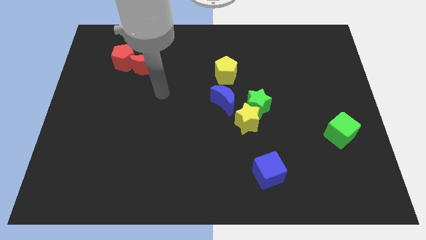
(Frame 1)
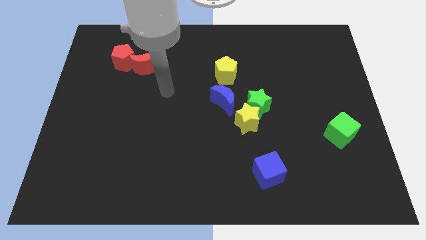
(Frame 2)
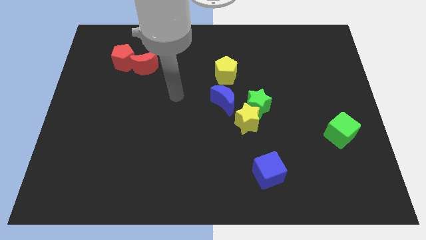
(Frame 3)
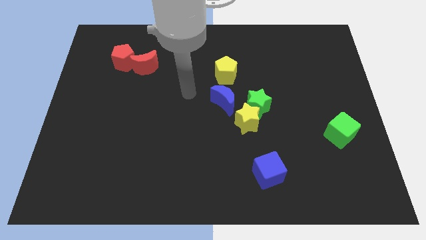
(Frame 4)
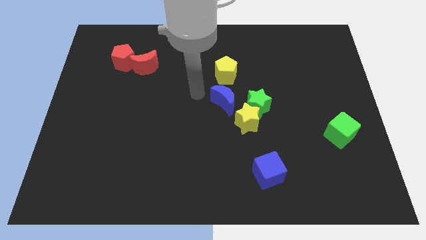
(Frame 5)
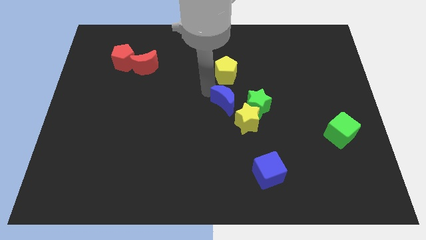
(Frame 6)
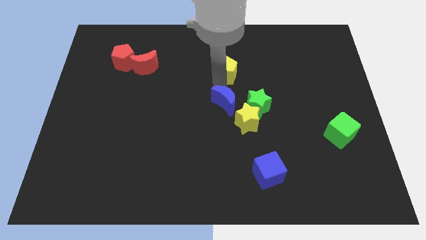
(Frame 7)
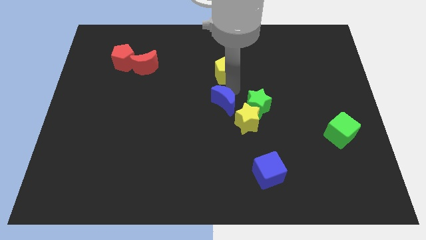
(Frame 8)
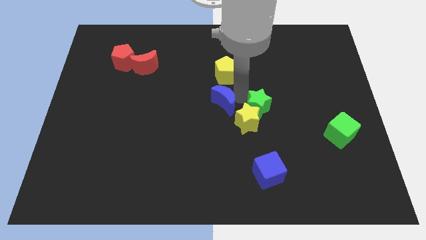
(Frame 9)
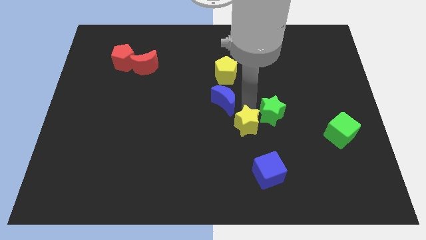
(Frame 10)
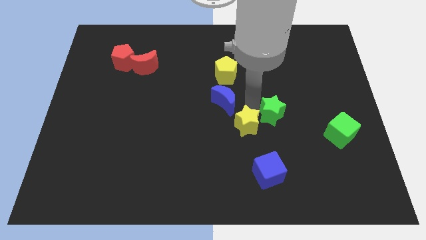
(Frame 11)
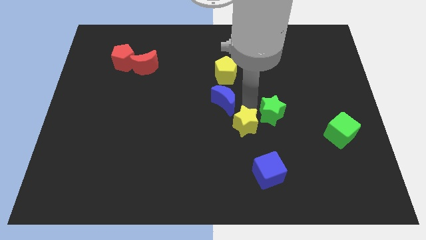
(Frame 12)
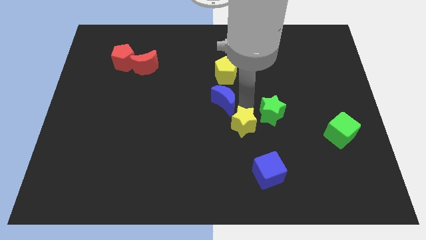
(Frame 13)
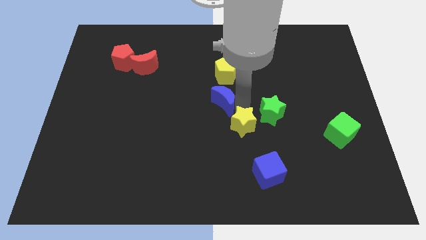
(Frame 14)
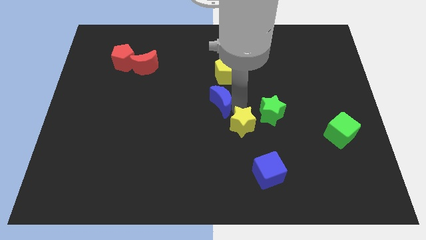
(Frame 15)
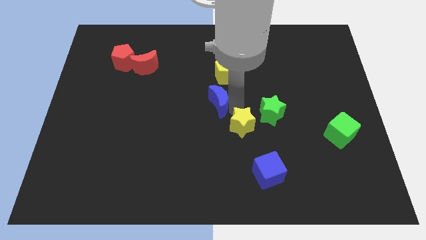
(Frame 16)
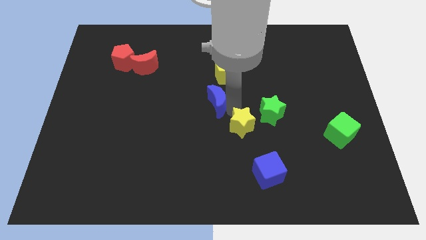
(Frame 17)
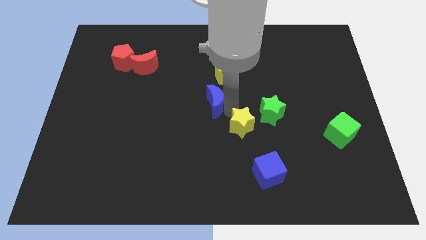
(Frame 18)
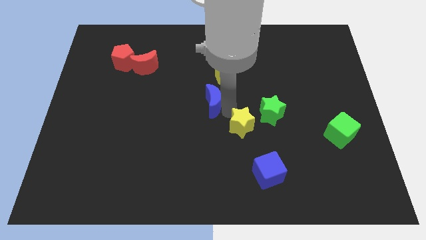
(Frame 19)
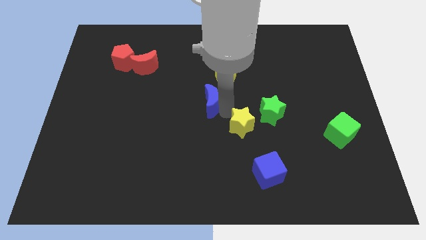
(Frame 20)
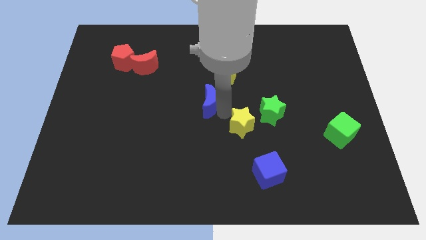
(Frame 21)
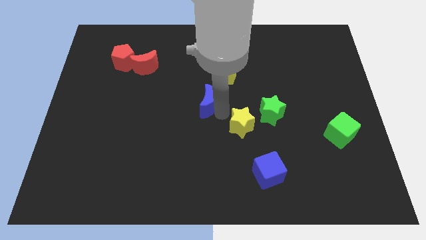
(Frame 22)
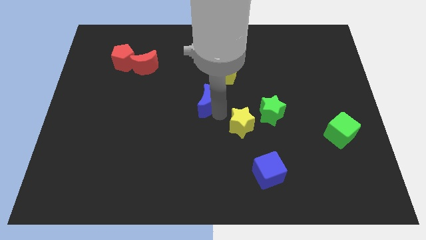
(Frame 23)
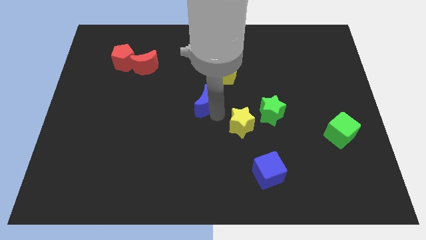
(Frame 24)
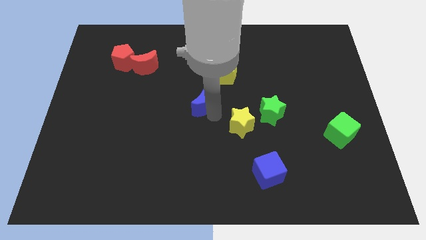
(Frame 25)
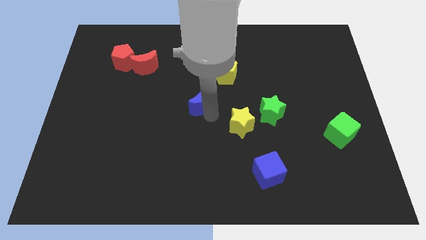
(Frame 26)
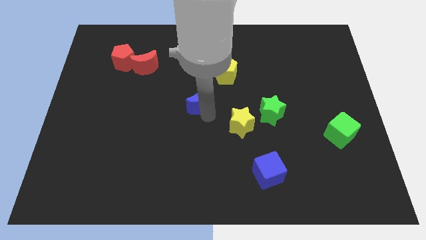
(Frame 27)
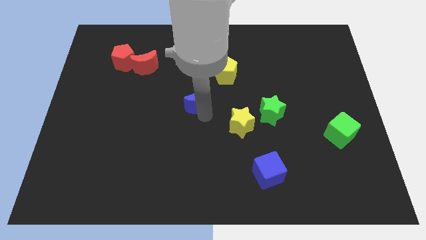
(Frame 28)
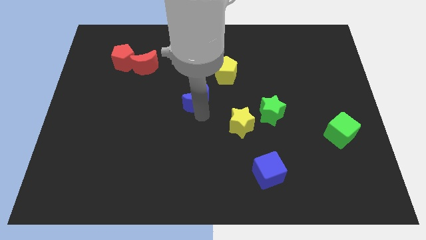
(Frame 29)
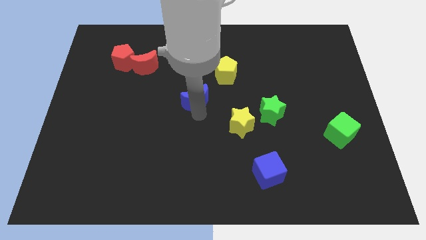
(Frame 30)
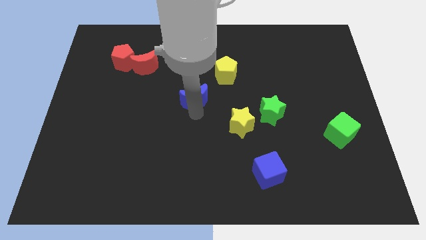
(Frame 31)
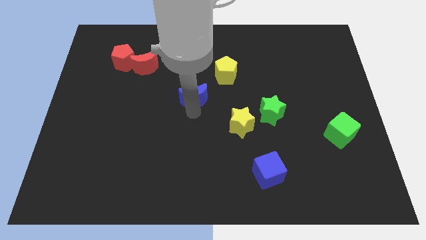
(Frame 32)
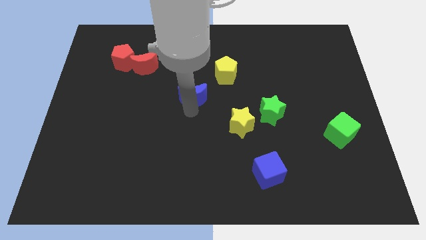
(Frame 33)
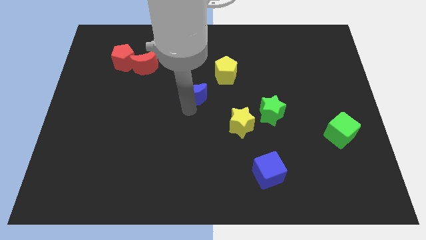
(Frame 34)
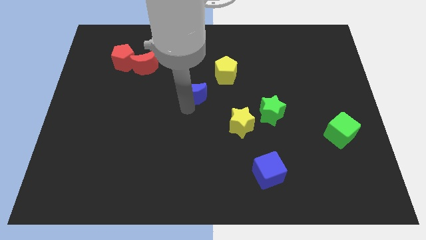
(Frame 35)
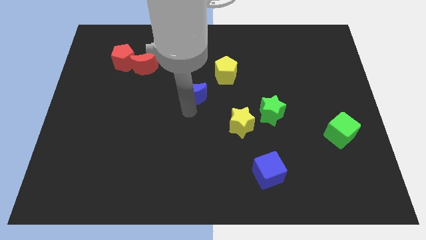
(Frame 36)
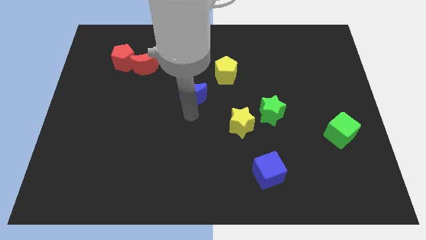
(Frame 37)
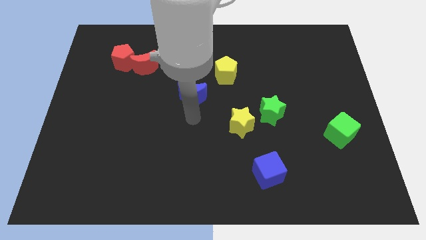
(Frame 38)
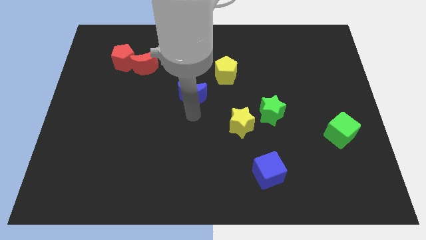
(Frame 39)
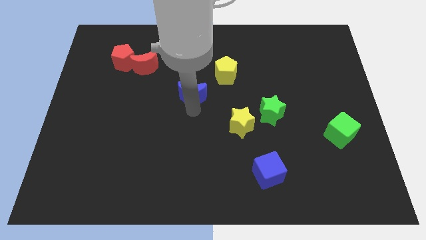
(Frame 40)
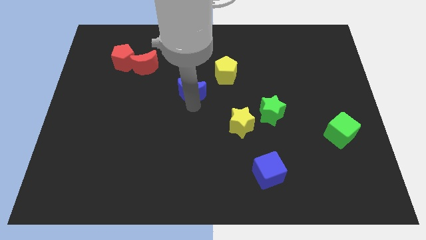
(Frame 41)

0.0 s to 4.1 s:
slightly push the blue moon diagonally upwards and to the left

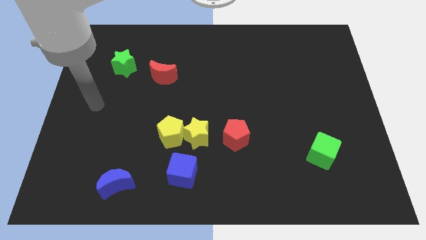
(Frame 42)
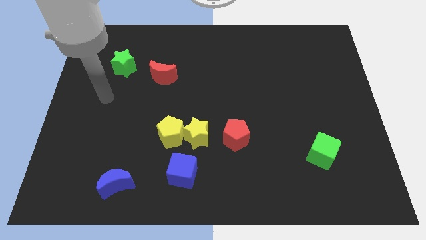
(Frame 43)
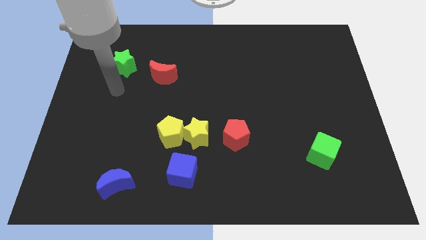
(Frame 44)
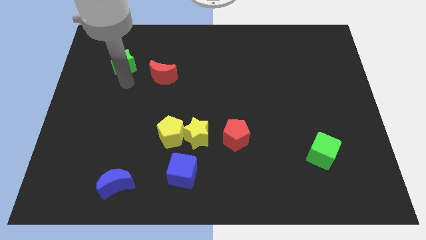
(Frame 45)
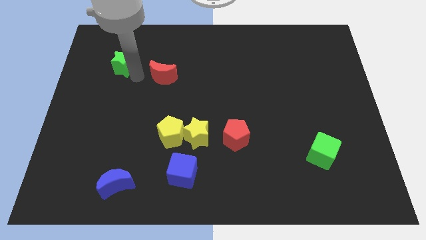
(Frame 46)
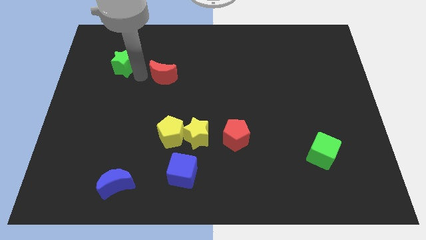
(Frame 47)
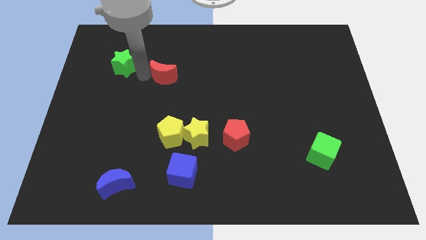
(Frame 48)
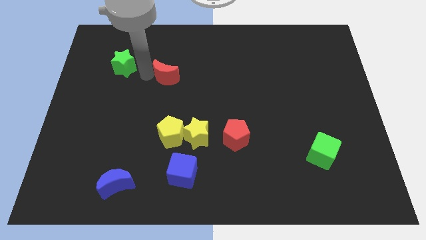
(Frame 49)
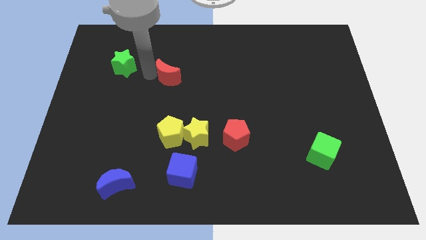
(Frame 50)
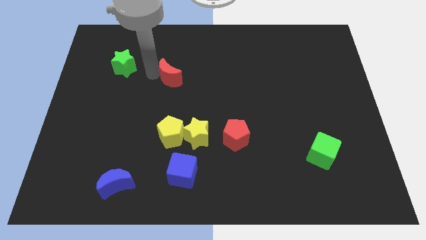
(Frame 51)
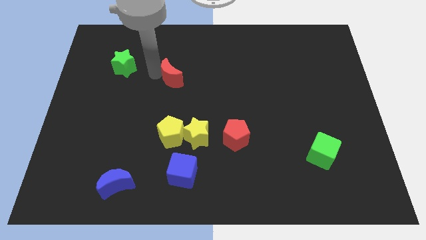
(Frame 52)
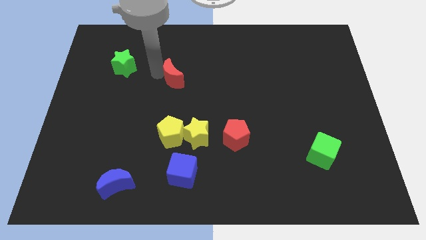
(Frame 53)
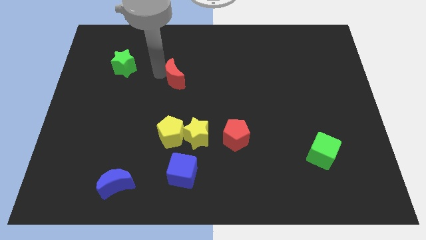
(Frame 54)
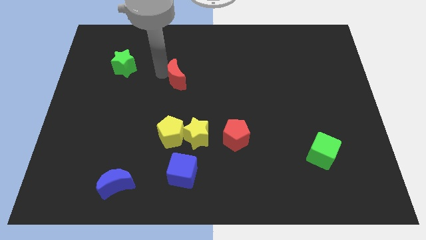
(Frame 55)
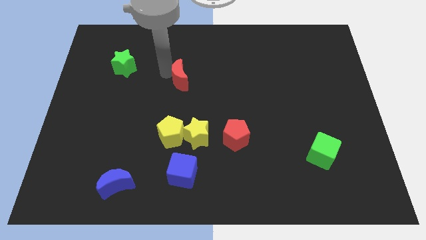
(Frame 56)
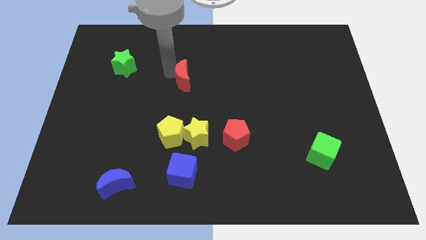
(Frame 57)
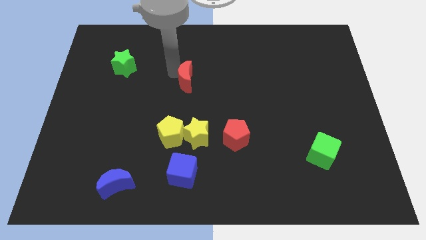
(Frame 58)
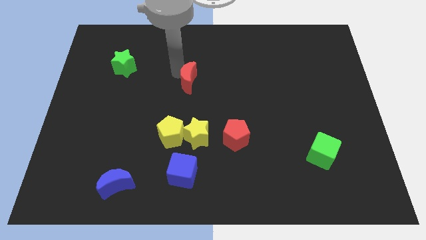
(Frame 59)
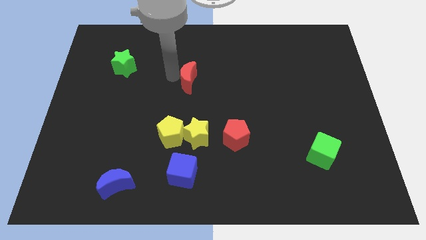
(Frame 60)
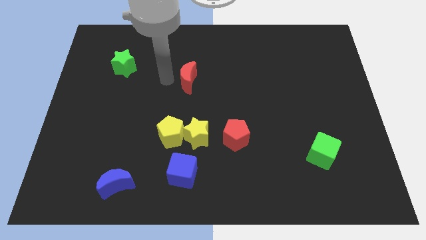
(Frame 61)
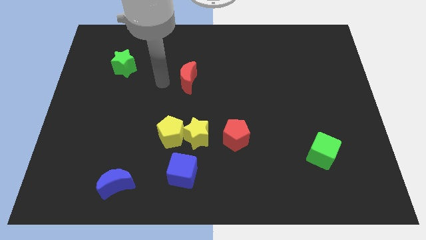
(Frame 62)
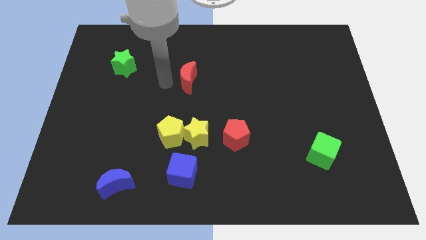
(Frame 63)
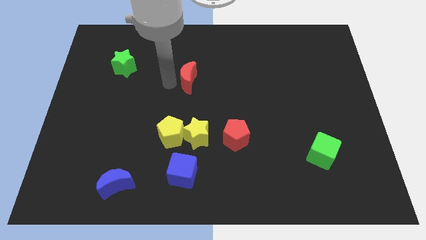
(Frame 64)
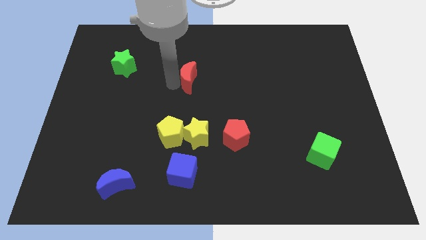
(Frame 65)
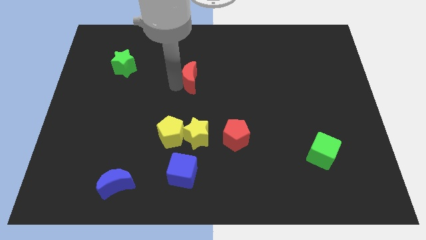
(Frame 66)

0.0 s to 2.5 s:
push the red moon slightly to the right

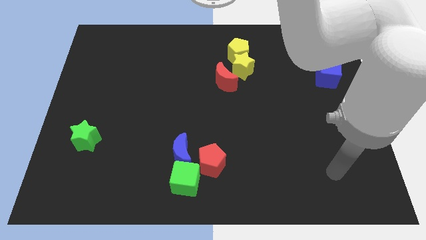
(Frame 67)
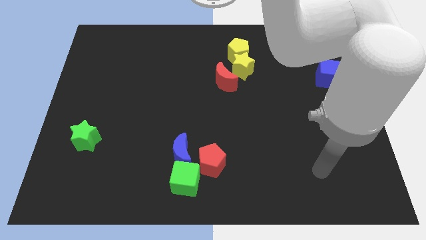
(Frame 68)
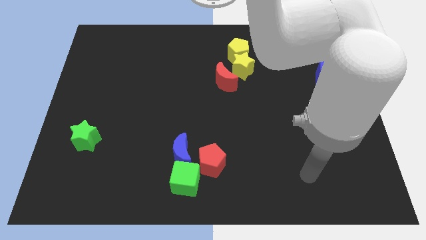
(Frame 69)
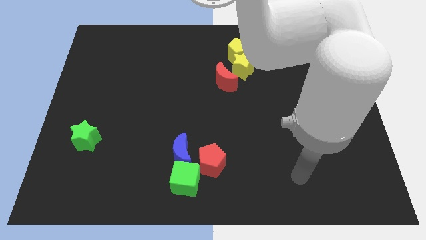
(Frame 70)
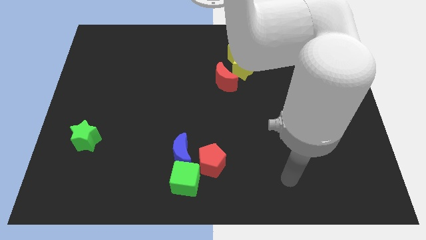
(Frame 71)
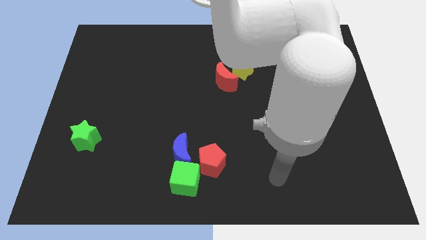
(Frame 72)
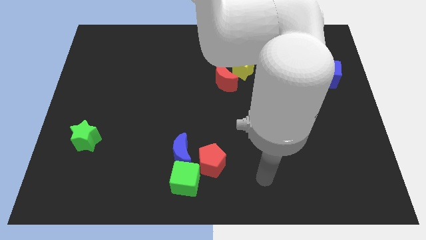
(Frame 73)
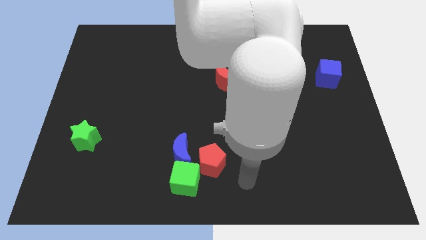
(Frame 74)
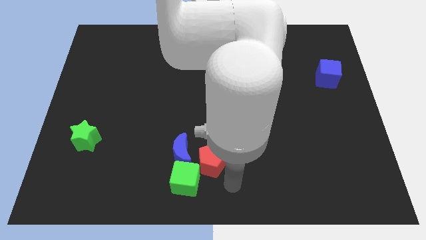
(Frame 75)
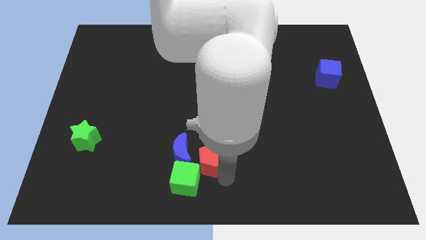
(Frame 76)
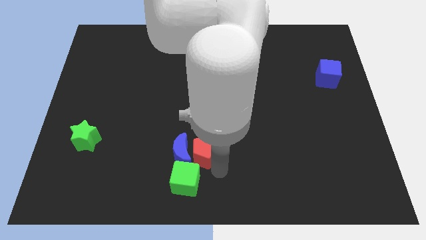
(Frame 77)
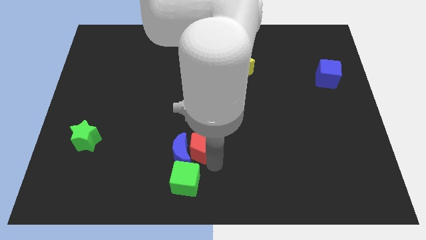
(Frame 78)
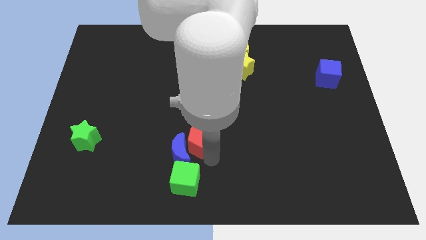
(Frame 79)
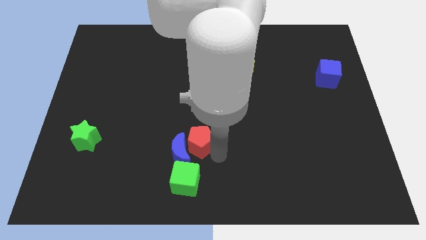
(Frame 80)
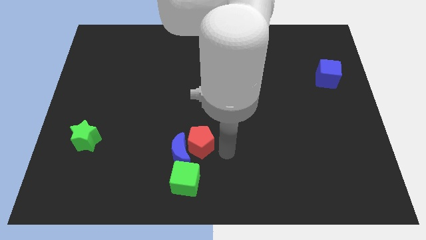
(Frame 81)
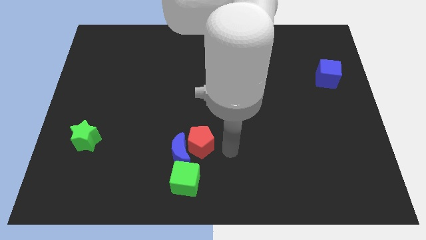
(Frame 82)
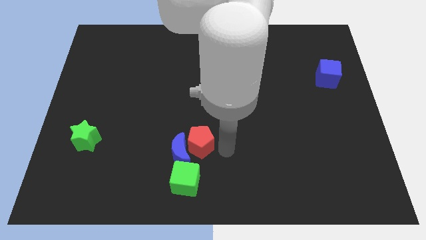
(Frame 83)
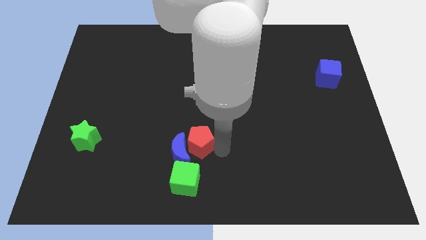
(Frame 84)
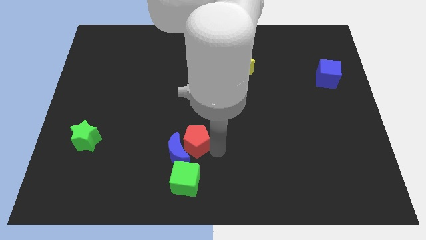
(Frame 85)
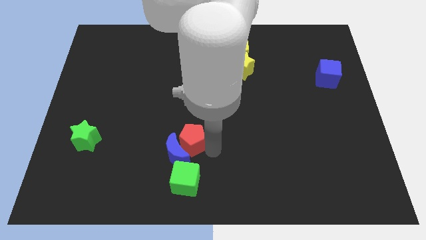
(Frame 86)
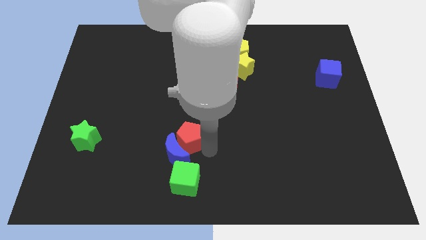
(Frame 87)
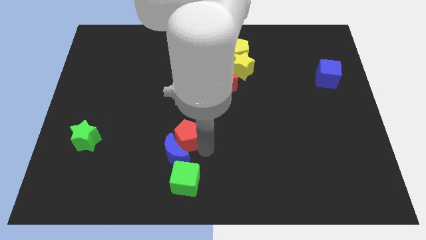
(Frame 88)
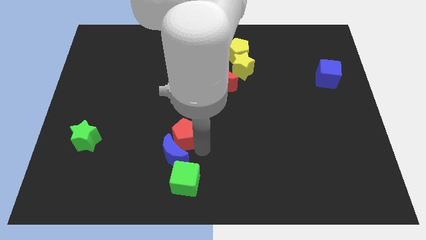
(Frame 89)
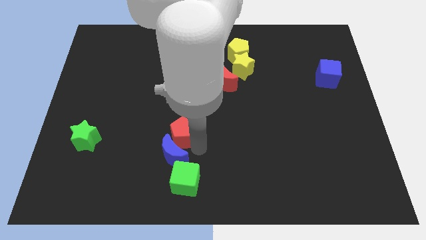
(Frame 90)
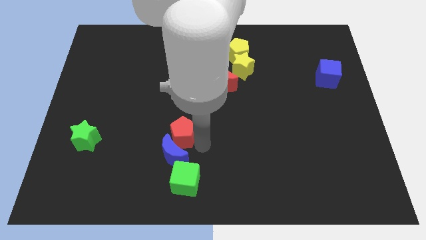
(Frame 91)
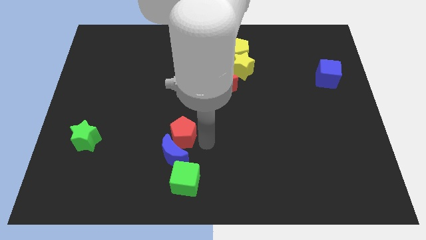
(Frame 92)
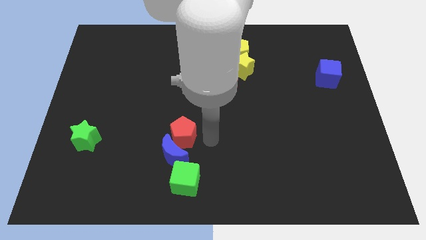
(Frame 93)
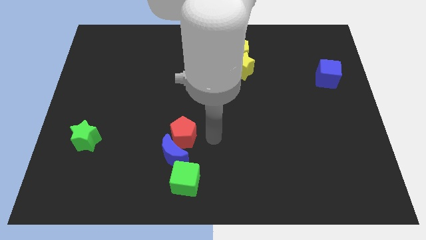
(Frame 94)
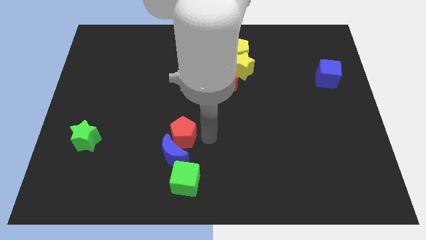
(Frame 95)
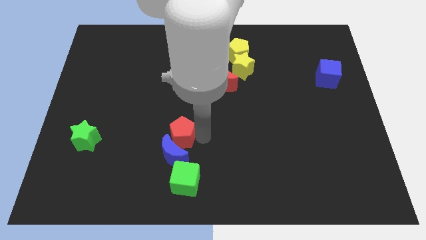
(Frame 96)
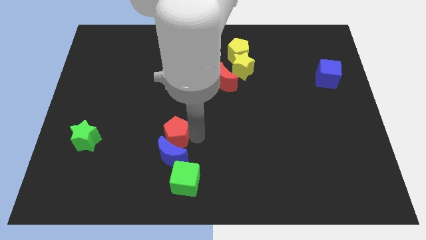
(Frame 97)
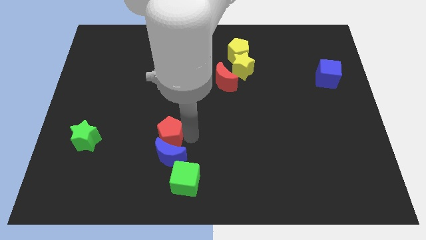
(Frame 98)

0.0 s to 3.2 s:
slightly slide the red pentagon to the left
